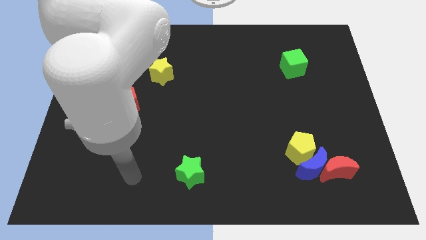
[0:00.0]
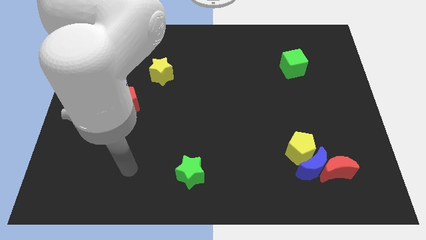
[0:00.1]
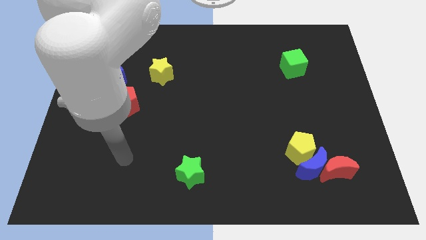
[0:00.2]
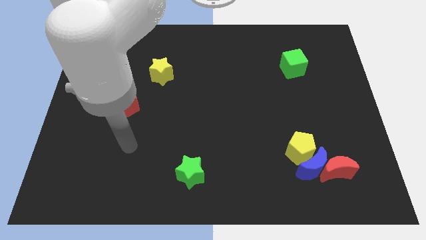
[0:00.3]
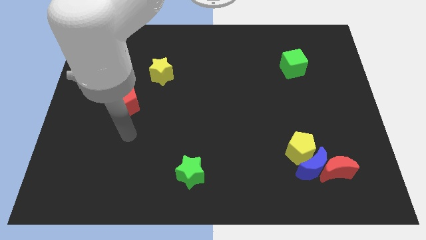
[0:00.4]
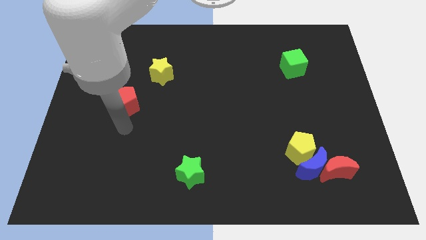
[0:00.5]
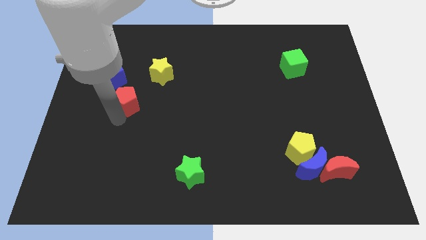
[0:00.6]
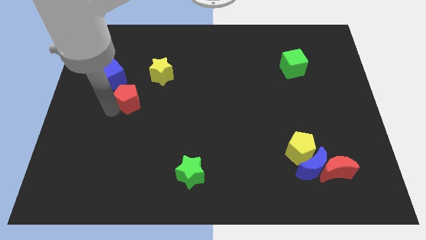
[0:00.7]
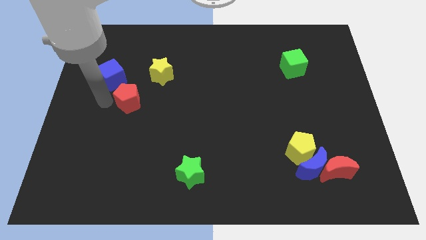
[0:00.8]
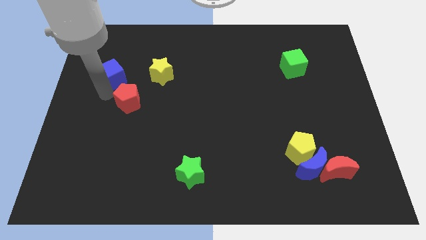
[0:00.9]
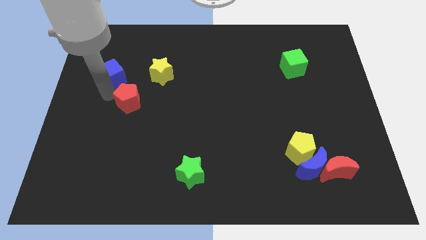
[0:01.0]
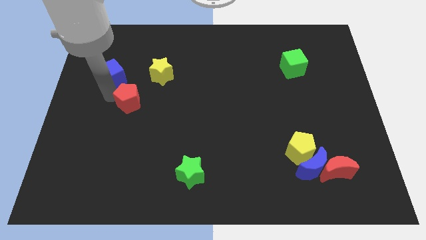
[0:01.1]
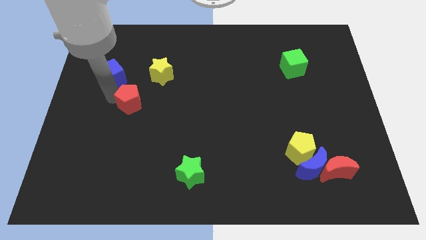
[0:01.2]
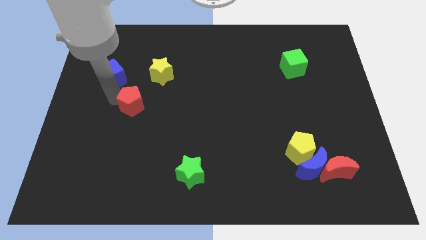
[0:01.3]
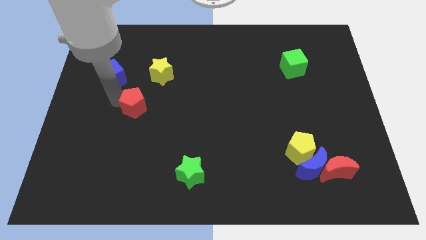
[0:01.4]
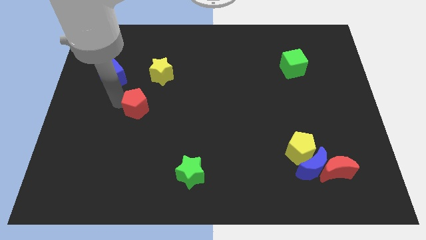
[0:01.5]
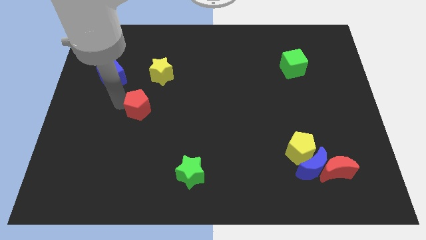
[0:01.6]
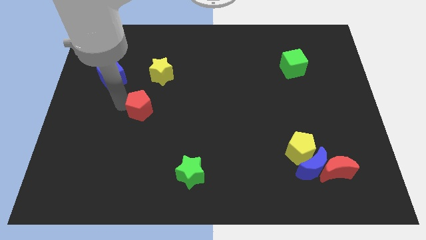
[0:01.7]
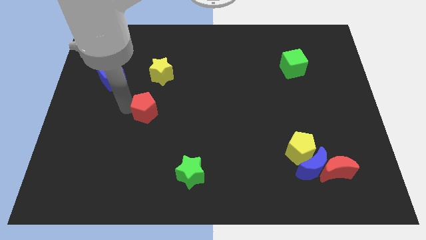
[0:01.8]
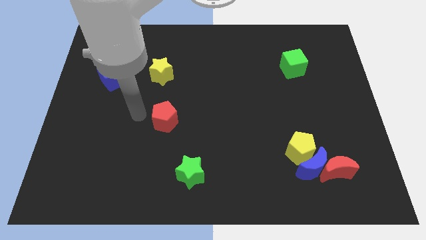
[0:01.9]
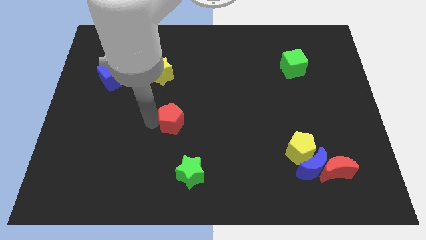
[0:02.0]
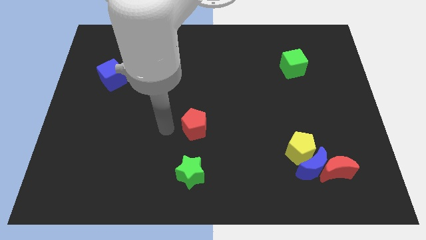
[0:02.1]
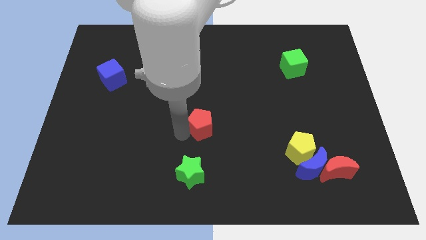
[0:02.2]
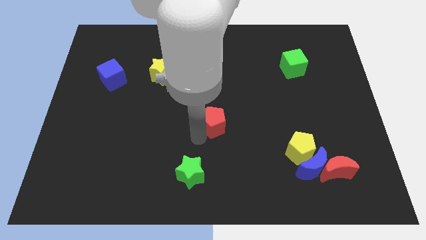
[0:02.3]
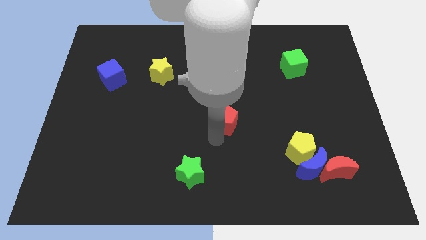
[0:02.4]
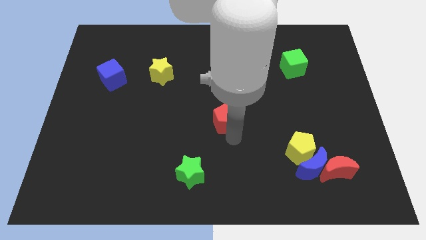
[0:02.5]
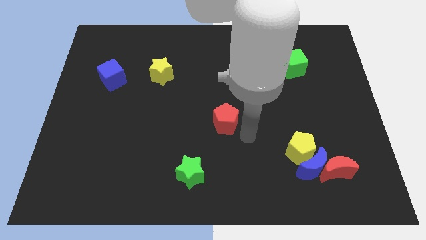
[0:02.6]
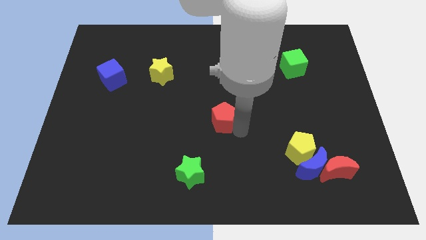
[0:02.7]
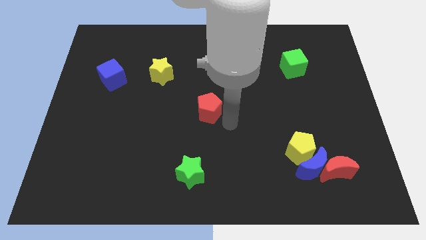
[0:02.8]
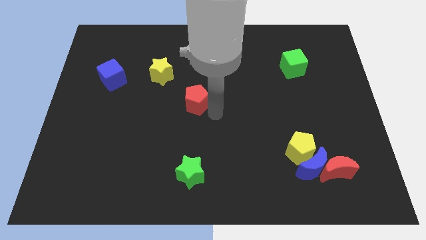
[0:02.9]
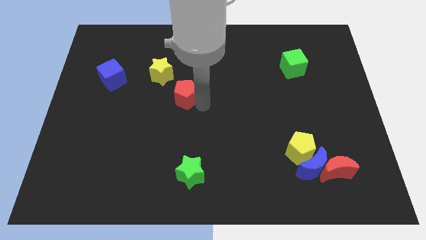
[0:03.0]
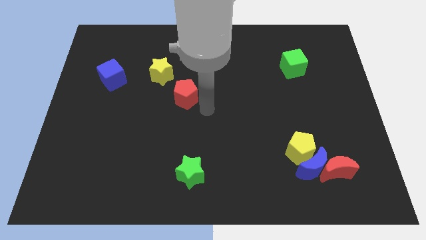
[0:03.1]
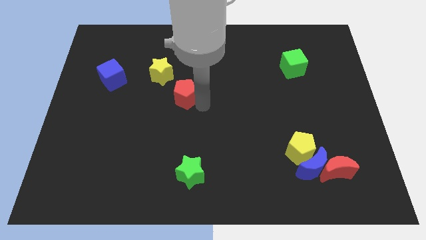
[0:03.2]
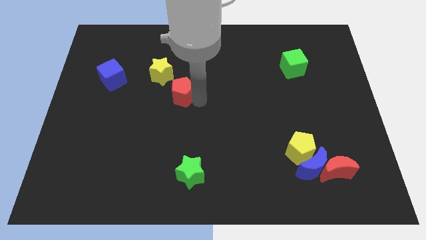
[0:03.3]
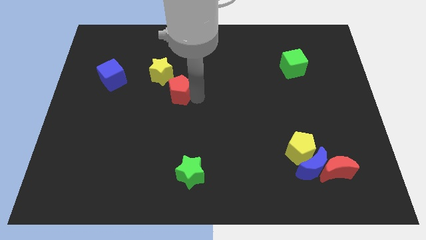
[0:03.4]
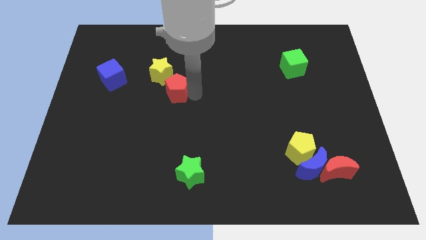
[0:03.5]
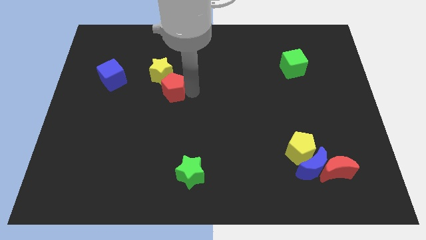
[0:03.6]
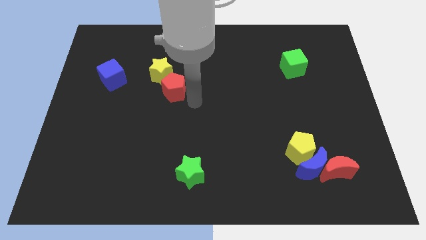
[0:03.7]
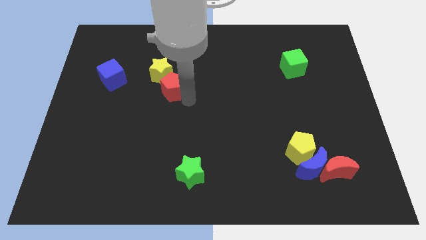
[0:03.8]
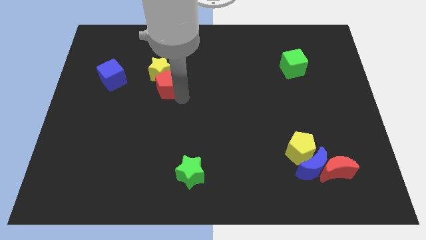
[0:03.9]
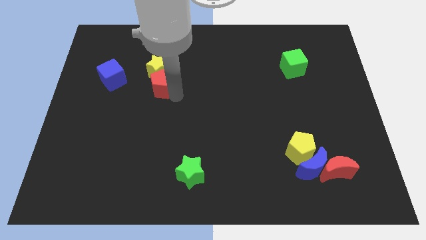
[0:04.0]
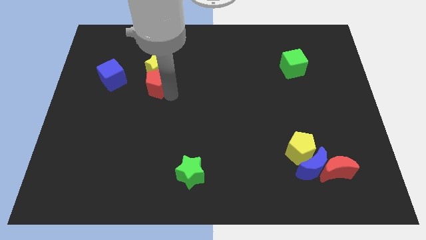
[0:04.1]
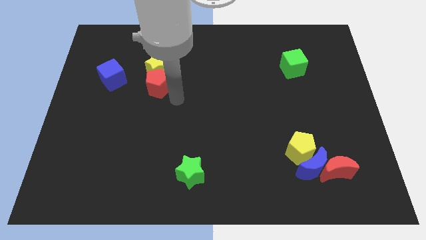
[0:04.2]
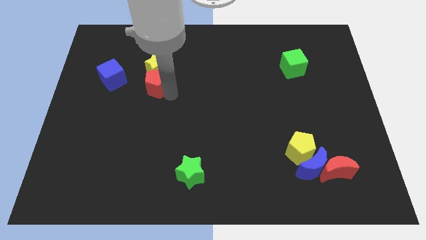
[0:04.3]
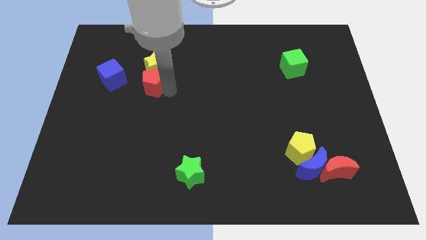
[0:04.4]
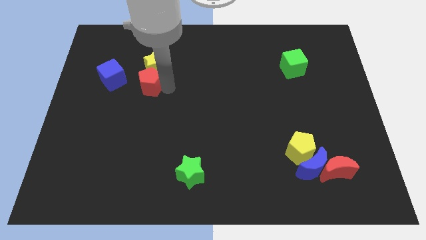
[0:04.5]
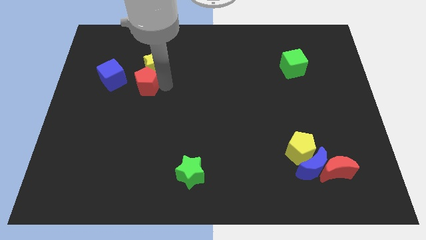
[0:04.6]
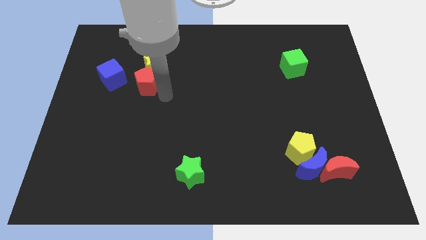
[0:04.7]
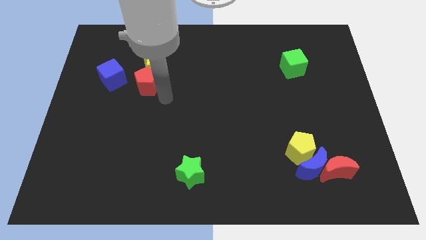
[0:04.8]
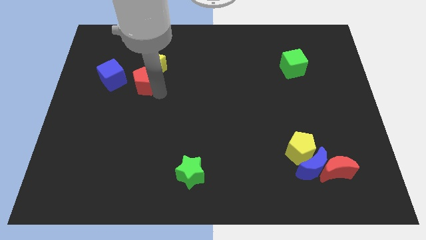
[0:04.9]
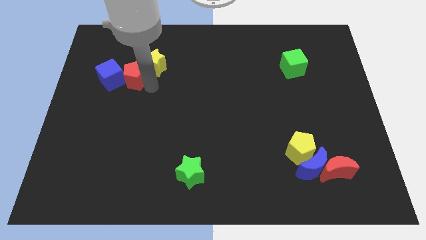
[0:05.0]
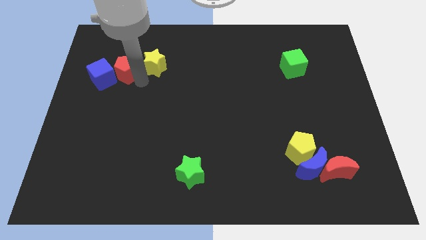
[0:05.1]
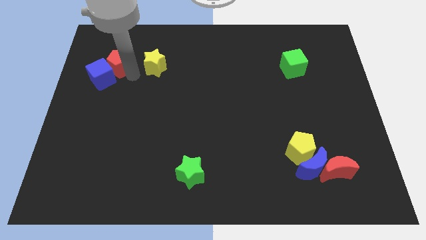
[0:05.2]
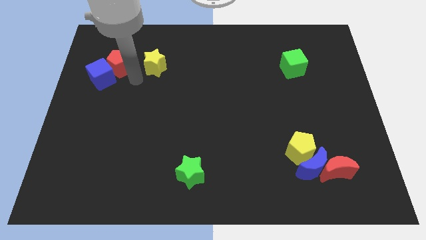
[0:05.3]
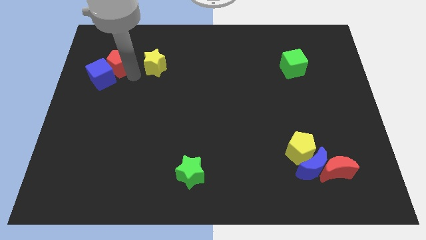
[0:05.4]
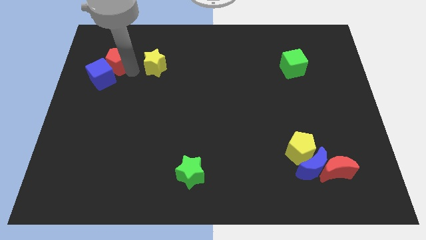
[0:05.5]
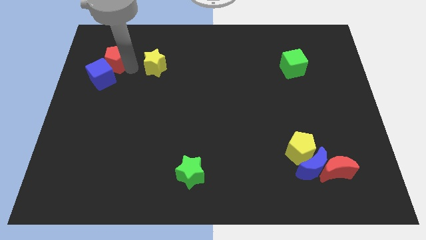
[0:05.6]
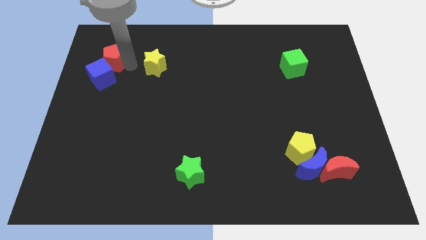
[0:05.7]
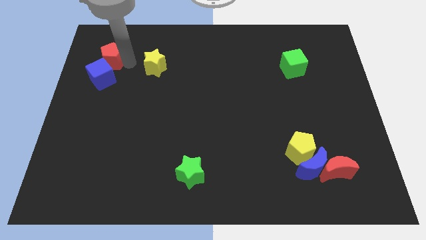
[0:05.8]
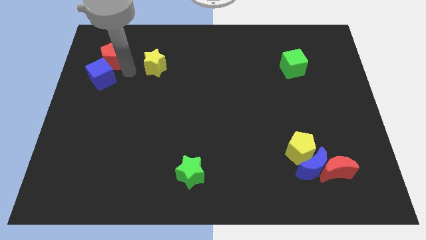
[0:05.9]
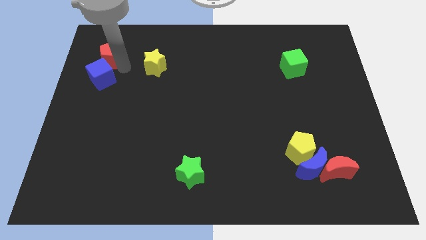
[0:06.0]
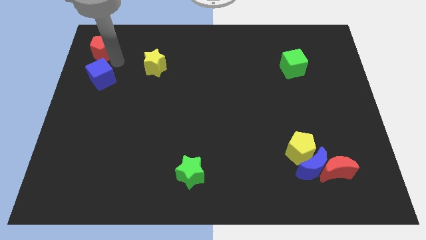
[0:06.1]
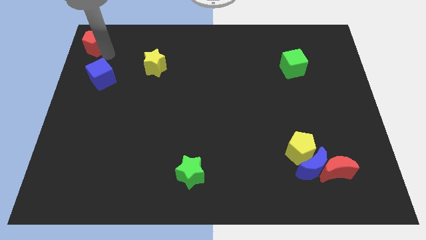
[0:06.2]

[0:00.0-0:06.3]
move the red pentagon to the top left of the board

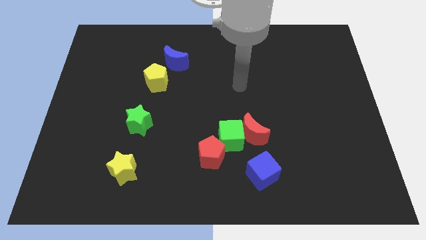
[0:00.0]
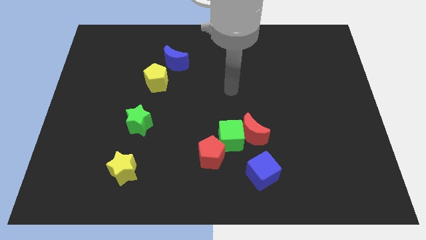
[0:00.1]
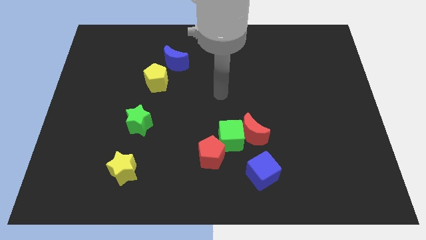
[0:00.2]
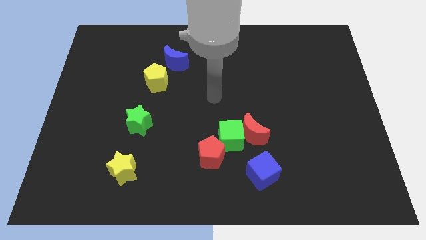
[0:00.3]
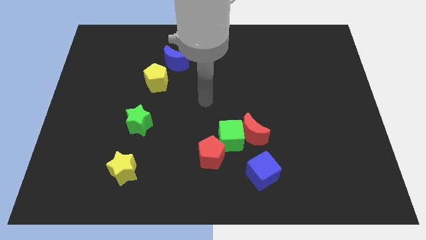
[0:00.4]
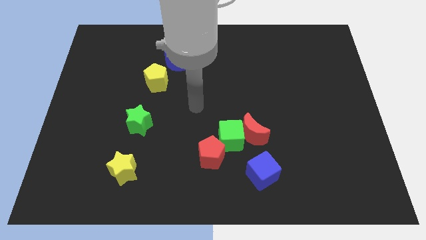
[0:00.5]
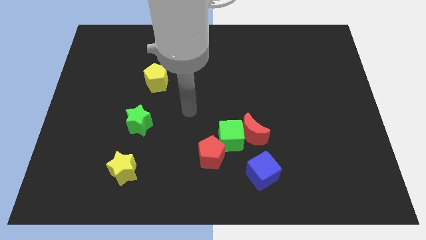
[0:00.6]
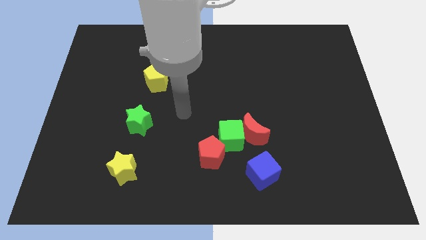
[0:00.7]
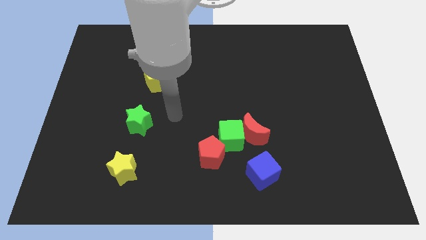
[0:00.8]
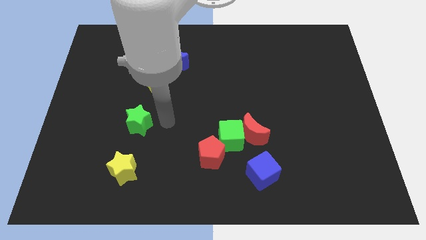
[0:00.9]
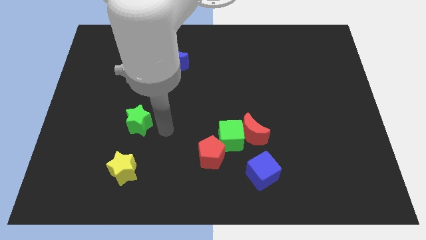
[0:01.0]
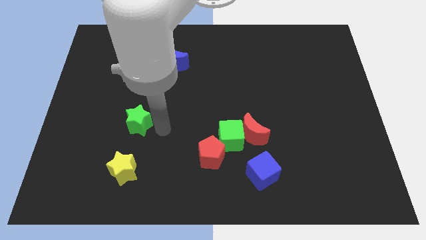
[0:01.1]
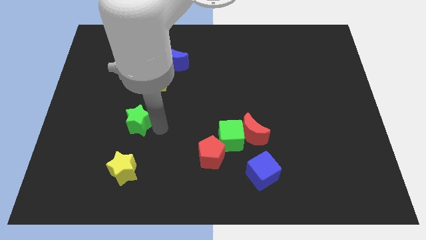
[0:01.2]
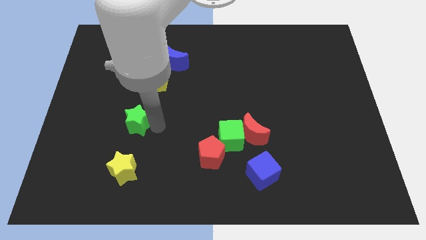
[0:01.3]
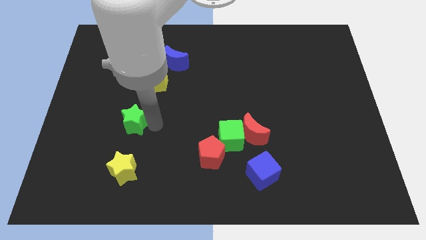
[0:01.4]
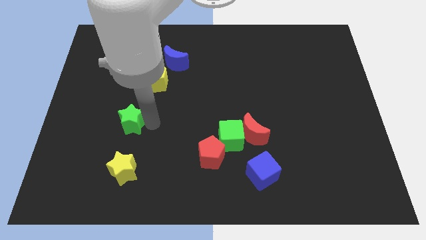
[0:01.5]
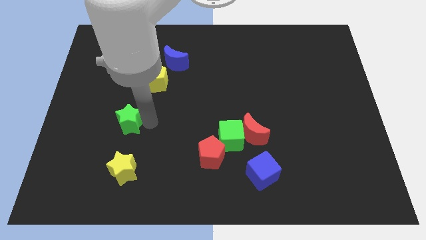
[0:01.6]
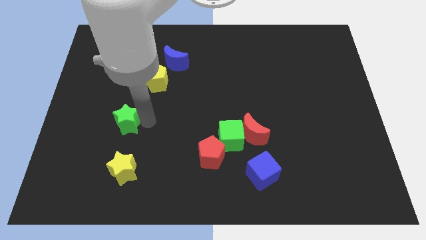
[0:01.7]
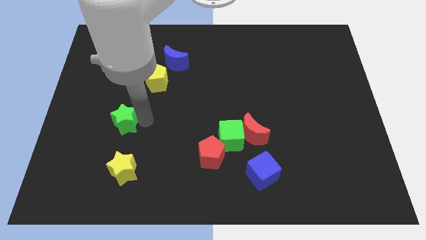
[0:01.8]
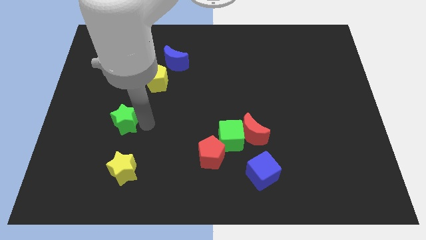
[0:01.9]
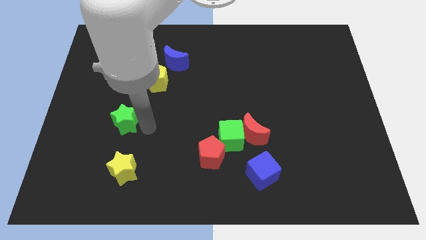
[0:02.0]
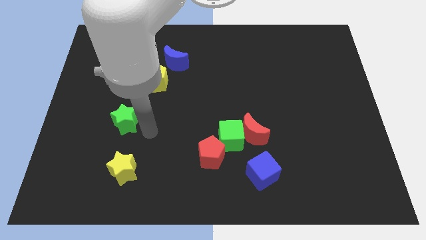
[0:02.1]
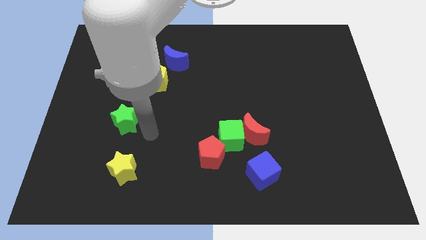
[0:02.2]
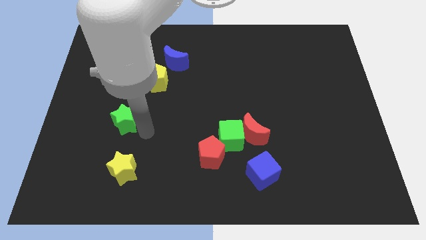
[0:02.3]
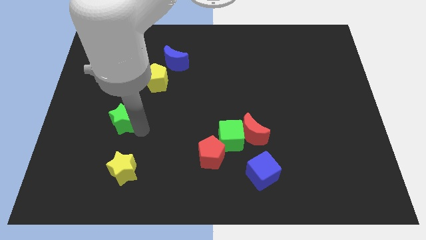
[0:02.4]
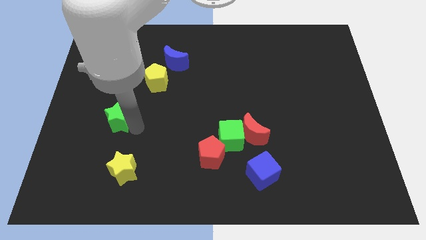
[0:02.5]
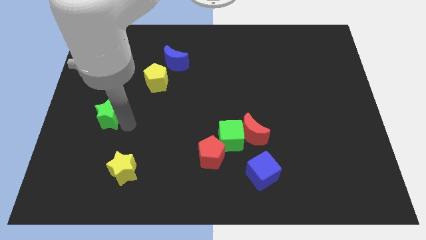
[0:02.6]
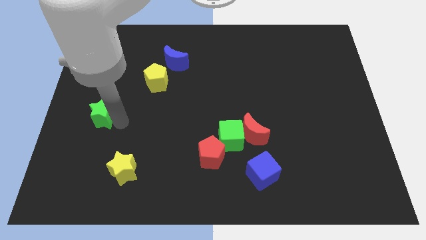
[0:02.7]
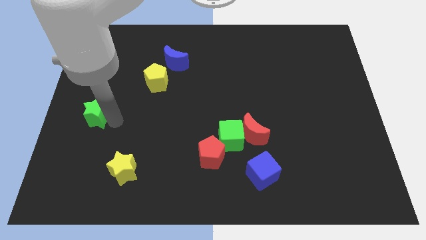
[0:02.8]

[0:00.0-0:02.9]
put the green star to the left side of the board
